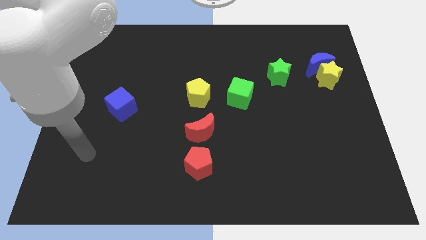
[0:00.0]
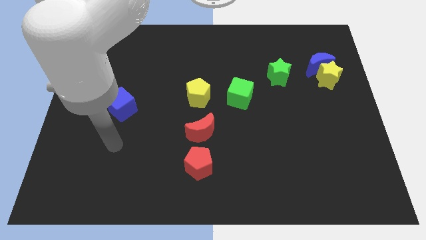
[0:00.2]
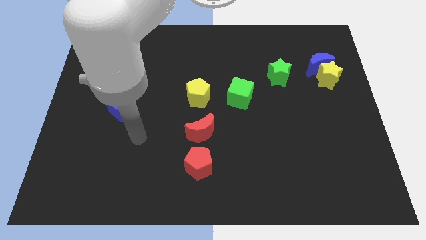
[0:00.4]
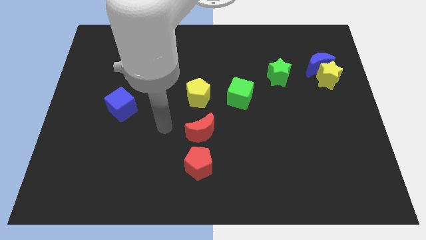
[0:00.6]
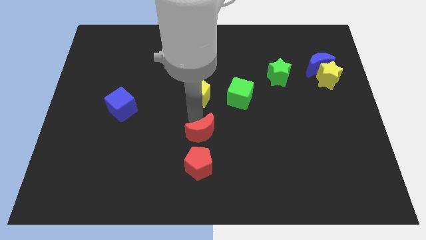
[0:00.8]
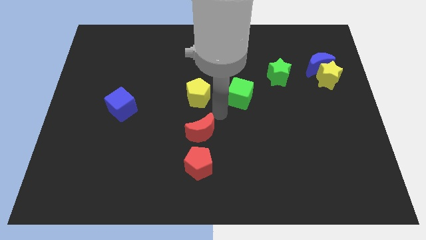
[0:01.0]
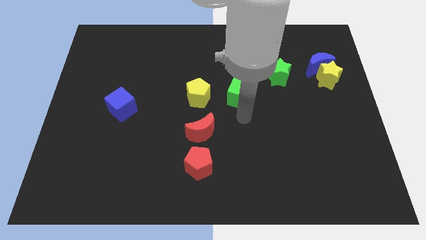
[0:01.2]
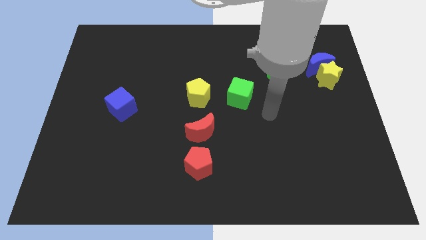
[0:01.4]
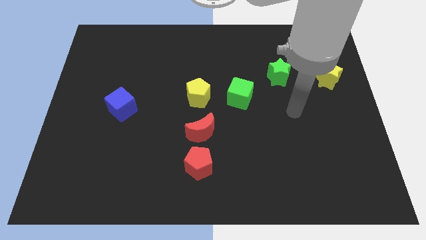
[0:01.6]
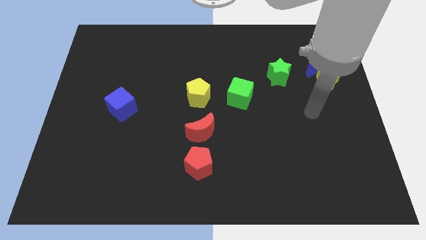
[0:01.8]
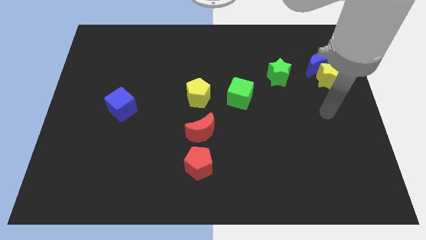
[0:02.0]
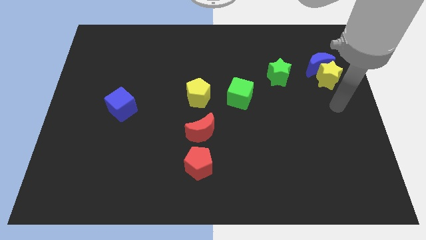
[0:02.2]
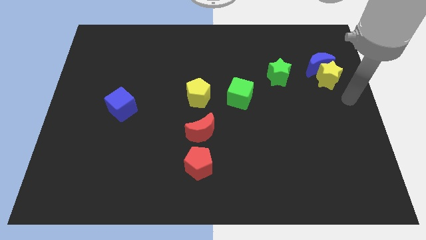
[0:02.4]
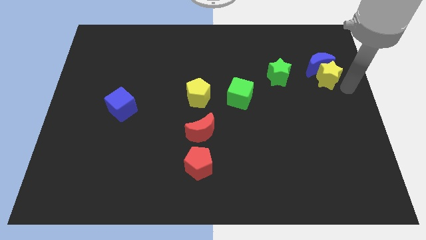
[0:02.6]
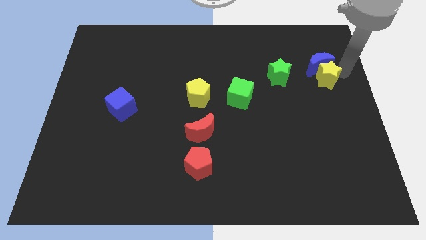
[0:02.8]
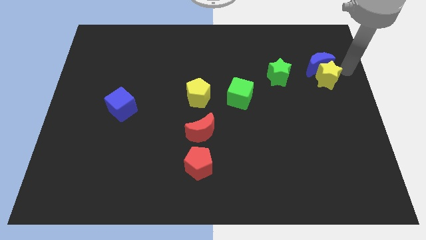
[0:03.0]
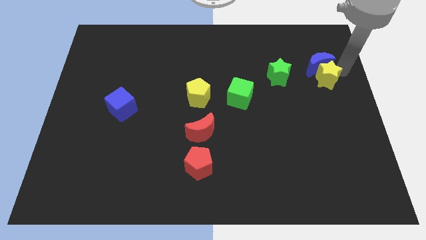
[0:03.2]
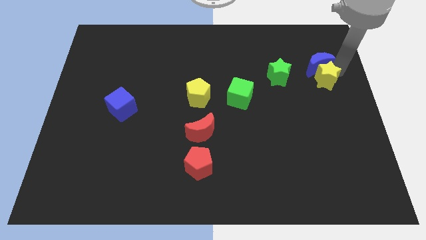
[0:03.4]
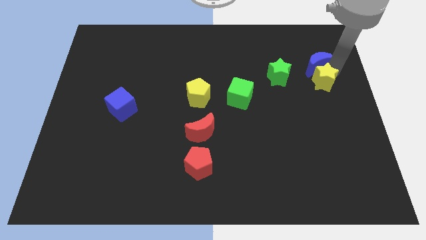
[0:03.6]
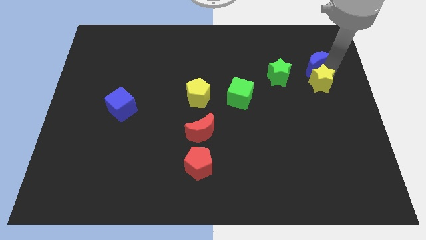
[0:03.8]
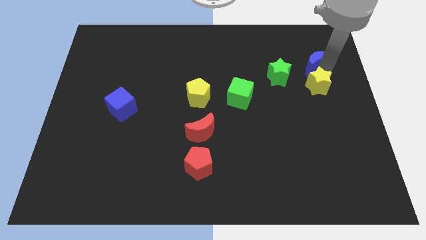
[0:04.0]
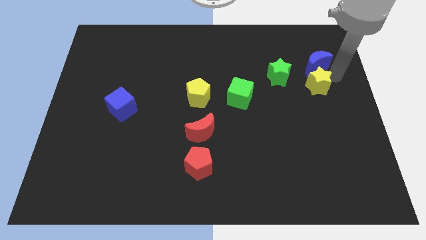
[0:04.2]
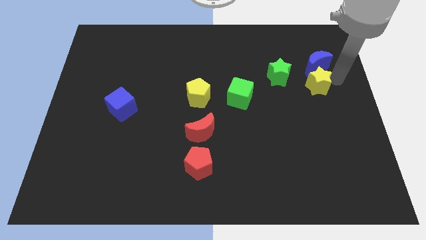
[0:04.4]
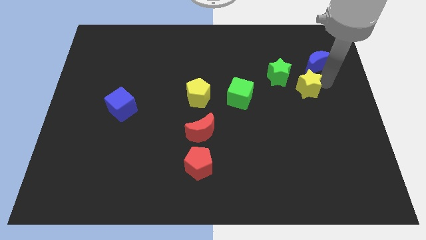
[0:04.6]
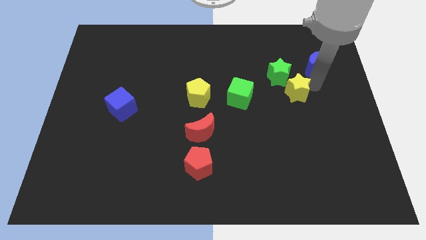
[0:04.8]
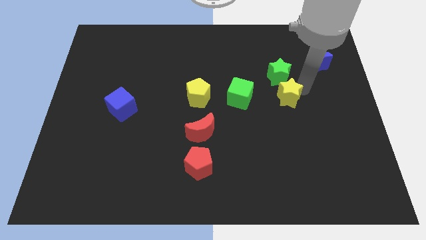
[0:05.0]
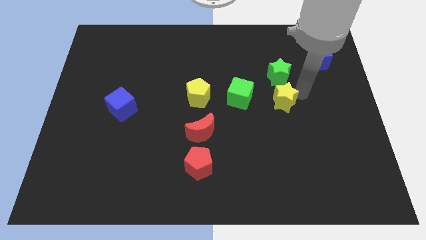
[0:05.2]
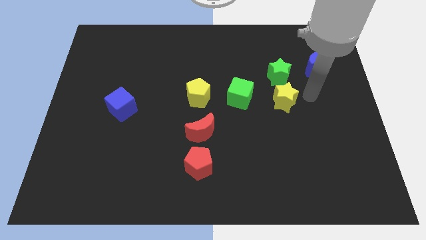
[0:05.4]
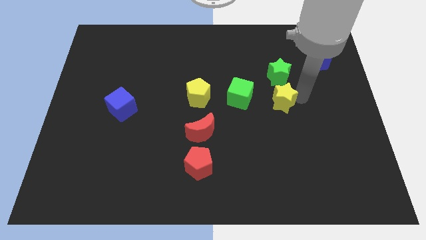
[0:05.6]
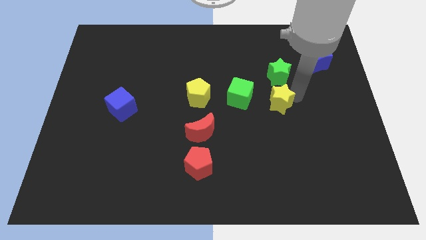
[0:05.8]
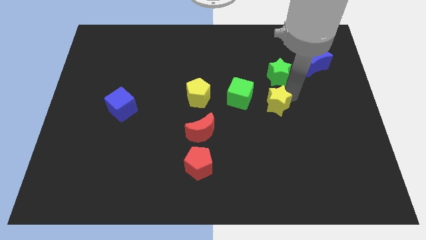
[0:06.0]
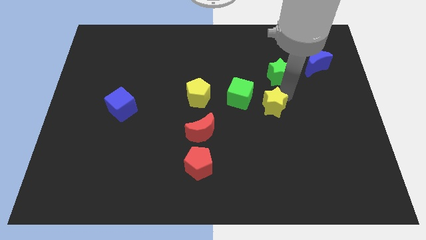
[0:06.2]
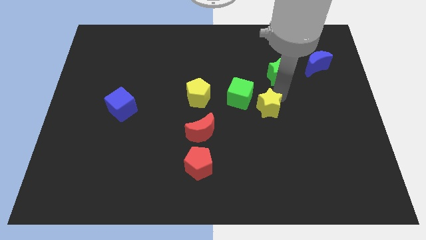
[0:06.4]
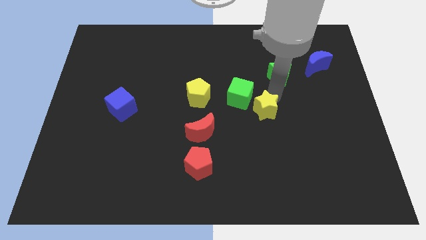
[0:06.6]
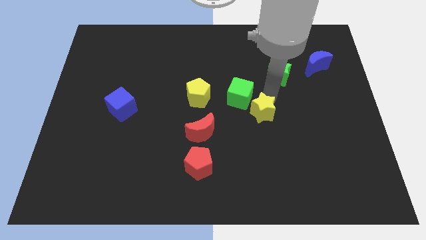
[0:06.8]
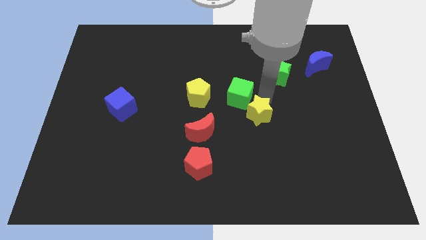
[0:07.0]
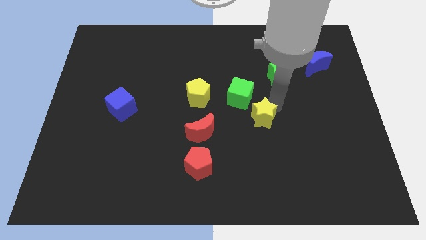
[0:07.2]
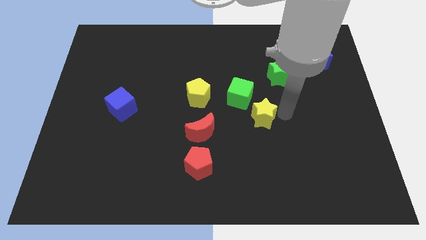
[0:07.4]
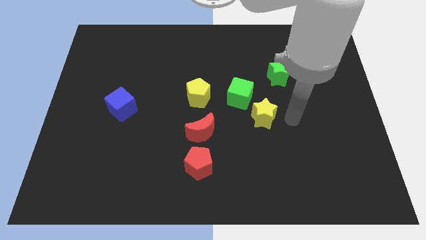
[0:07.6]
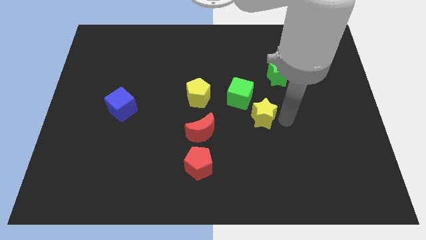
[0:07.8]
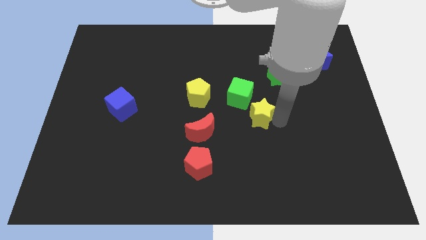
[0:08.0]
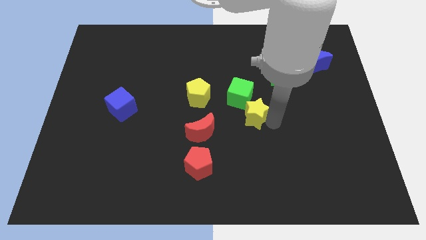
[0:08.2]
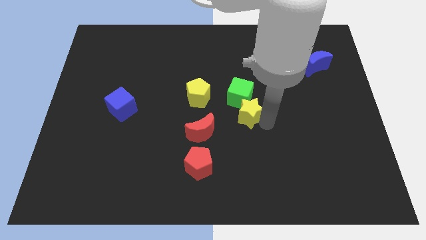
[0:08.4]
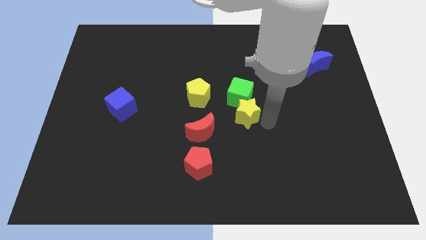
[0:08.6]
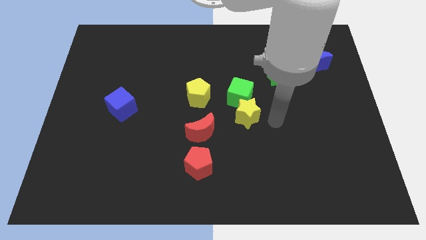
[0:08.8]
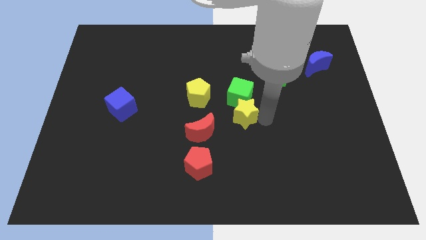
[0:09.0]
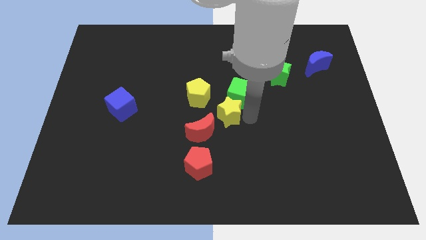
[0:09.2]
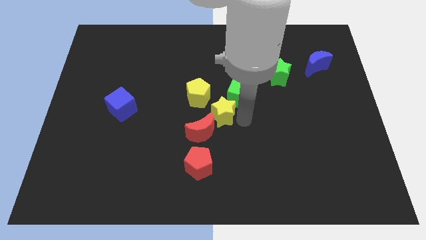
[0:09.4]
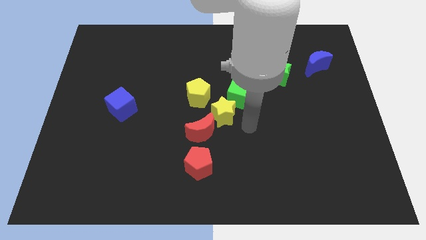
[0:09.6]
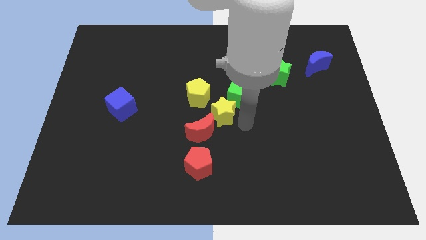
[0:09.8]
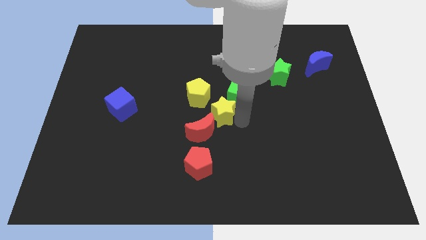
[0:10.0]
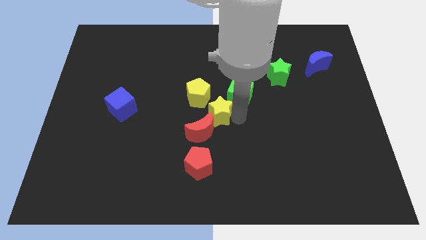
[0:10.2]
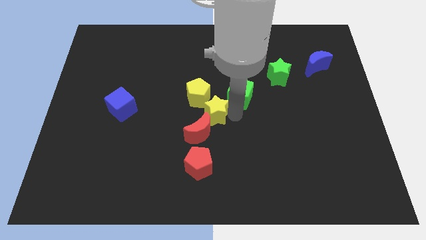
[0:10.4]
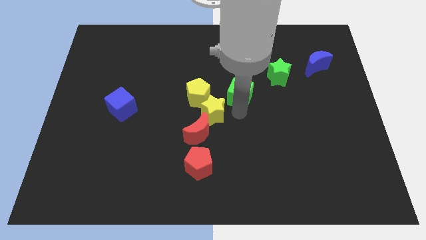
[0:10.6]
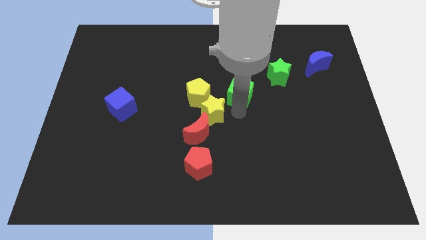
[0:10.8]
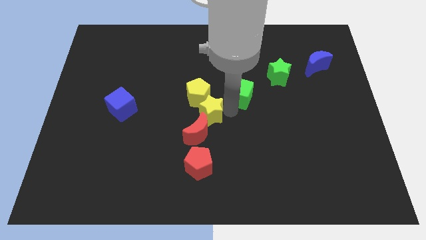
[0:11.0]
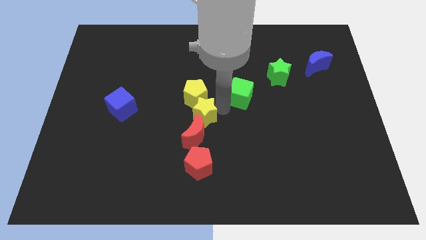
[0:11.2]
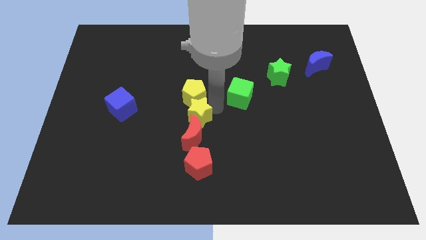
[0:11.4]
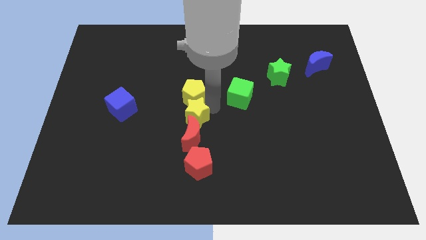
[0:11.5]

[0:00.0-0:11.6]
slide the yellow star to the top left side of the red moon
